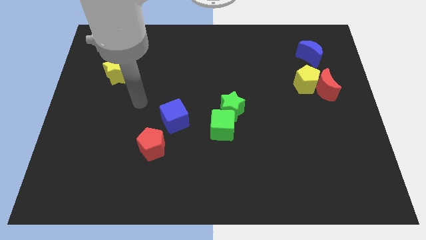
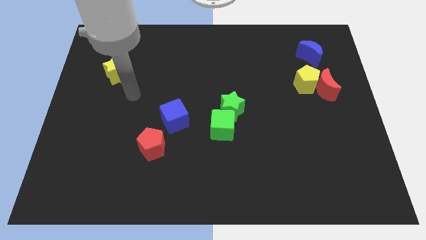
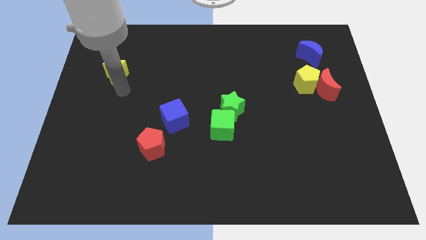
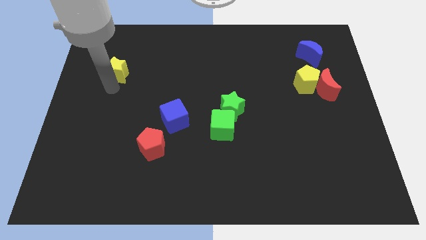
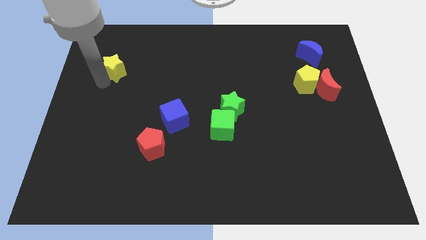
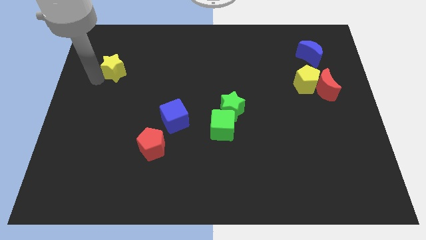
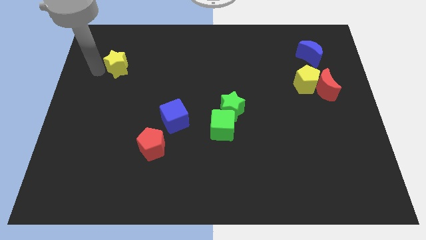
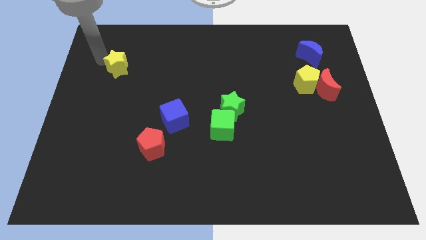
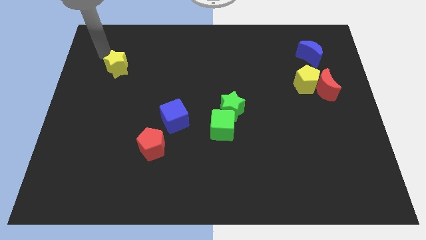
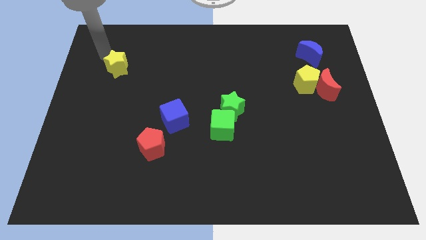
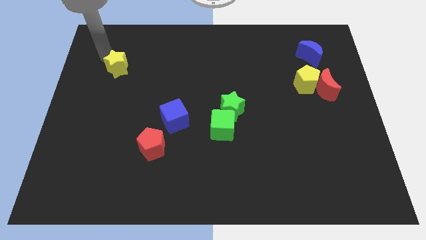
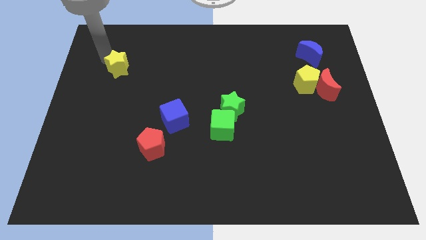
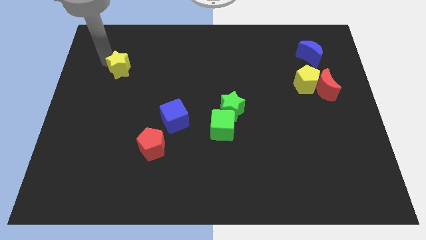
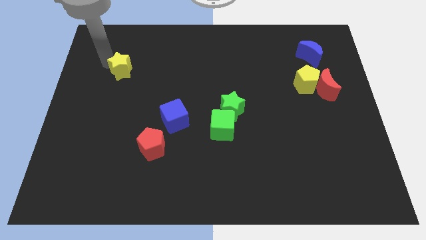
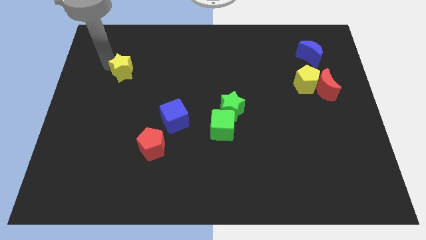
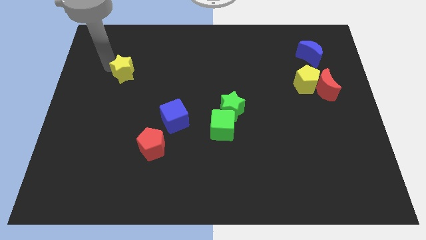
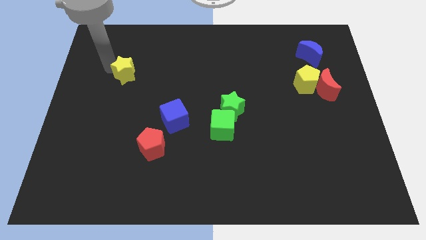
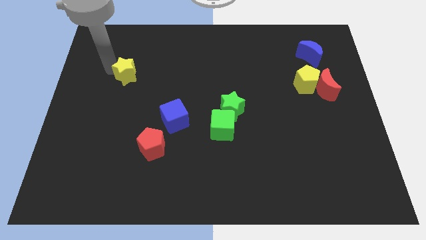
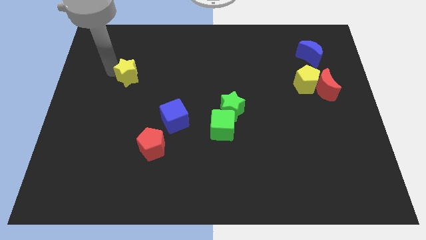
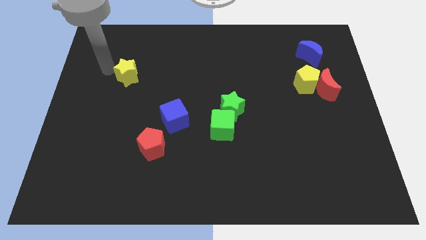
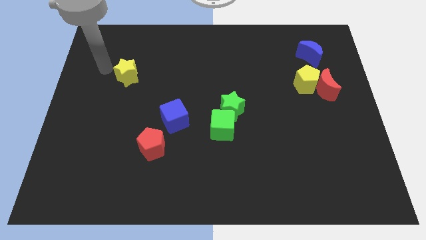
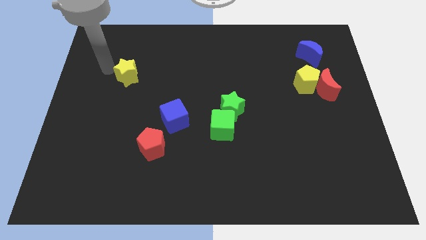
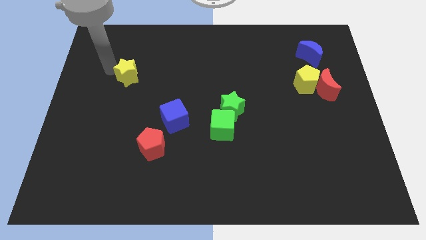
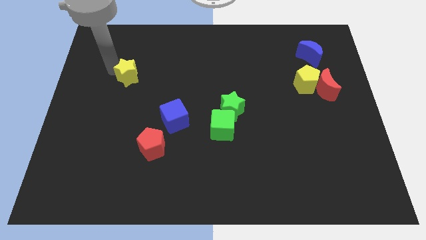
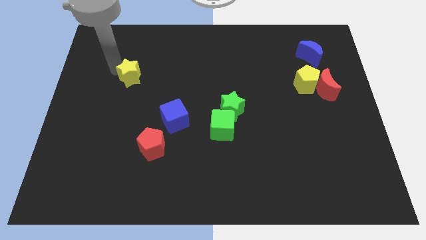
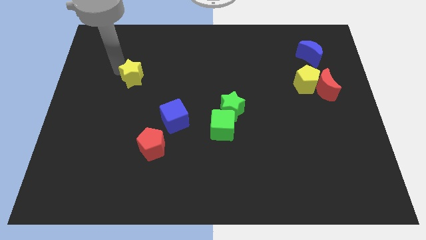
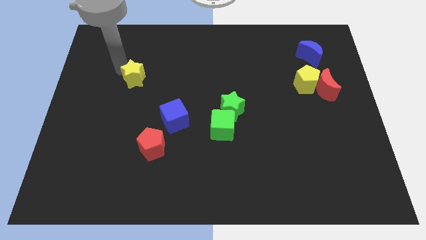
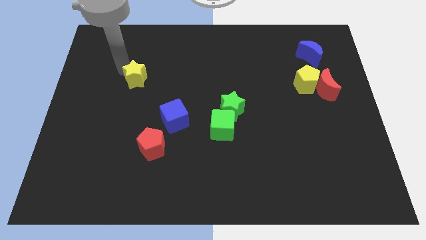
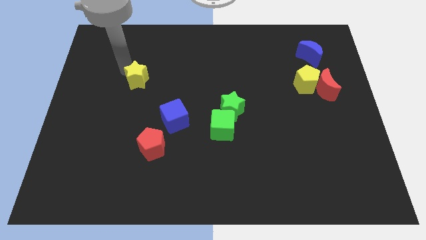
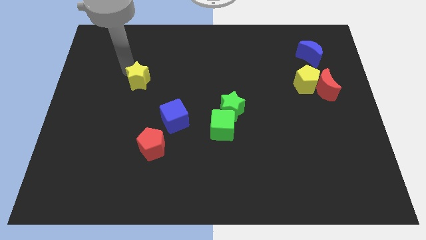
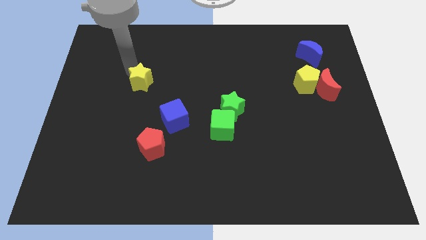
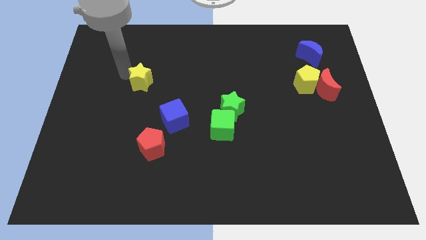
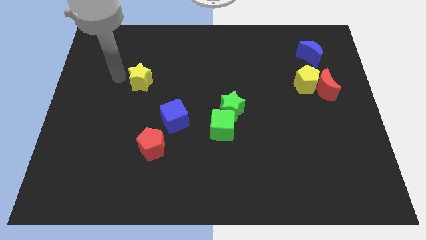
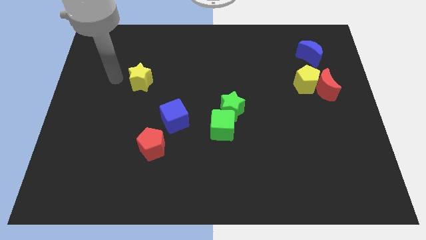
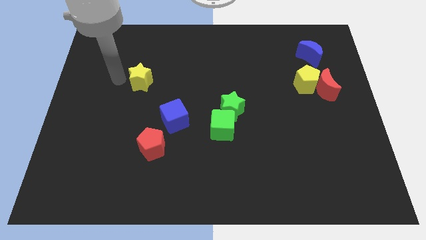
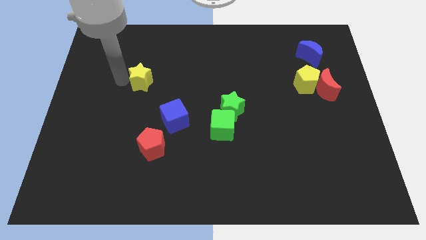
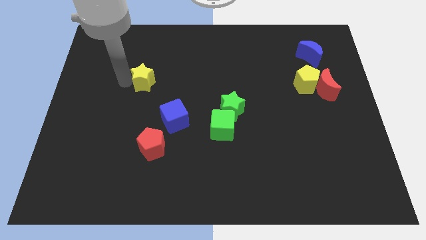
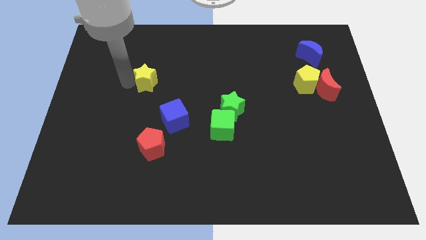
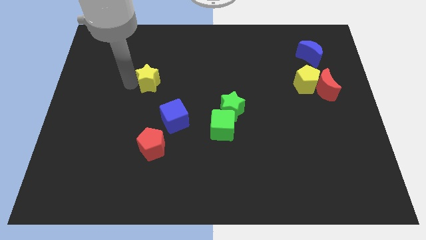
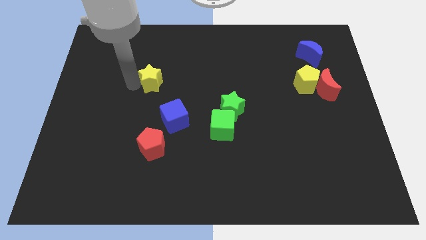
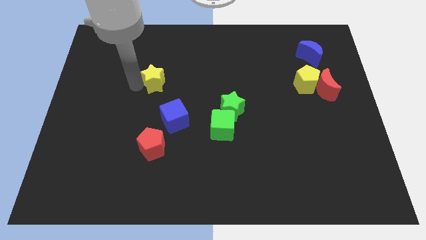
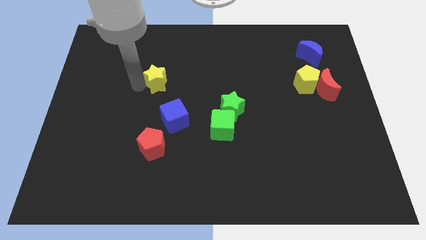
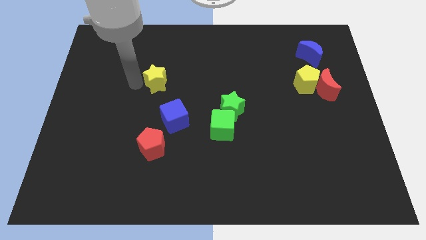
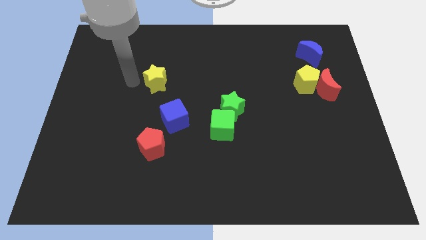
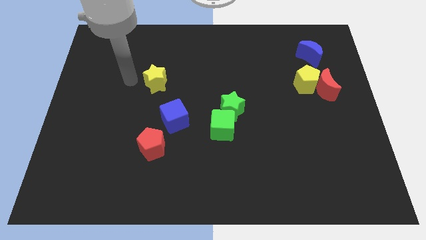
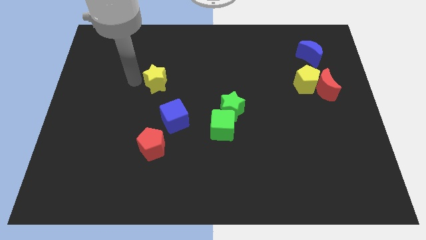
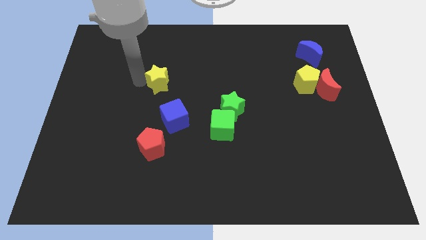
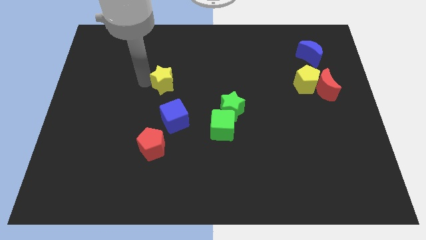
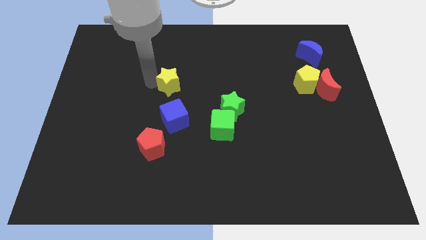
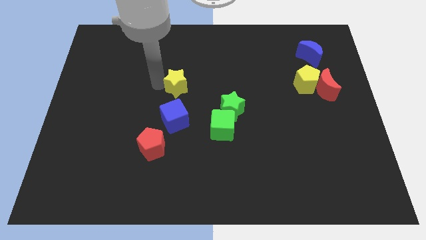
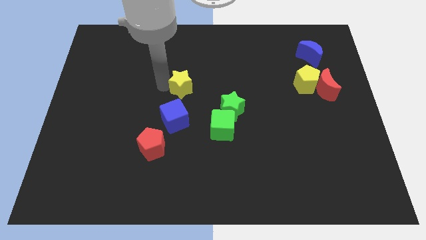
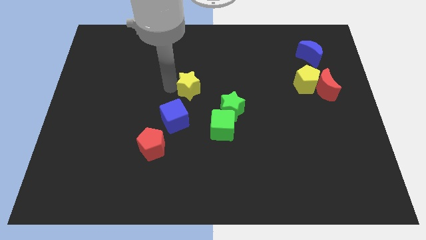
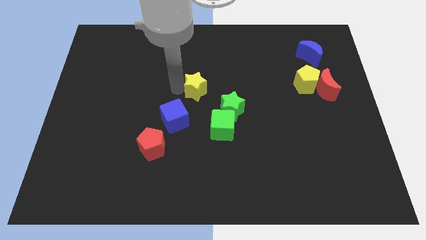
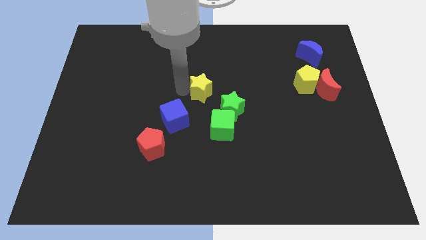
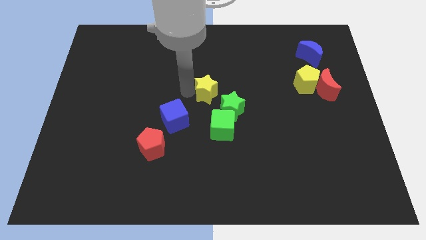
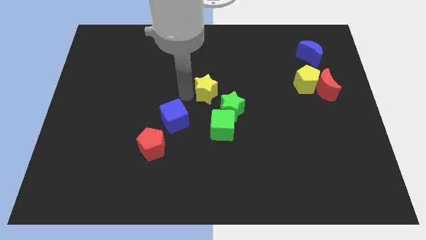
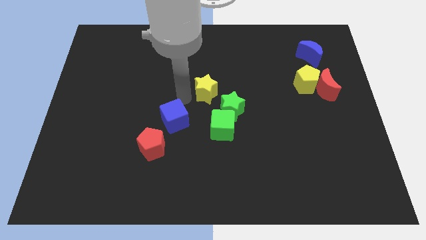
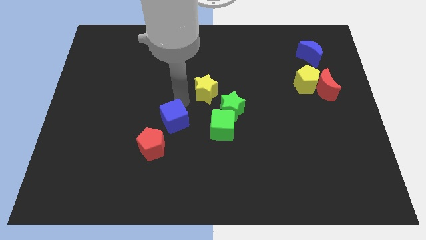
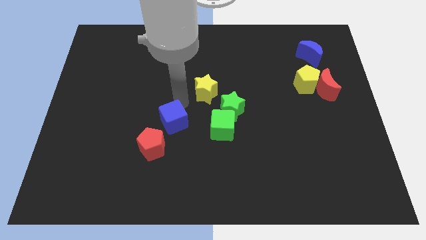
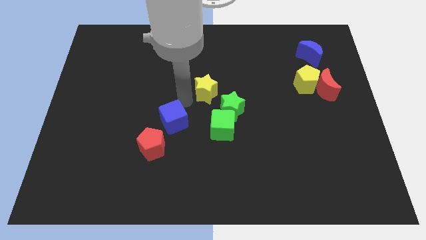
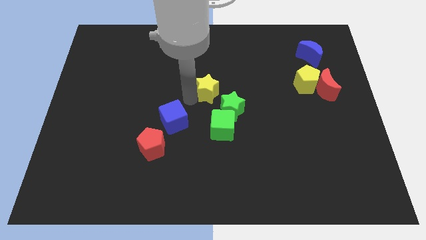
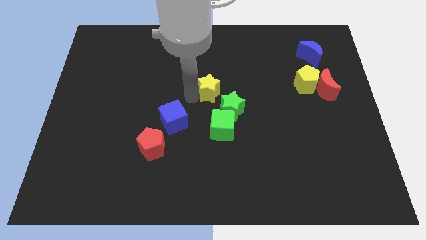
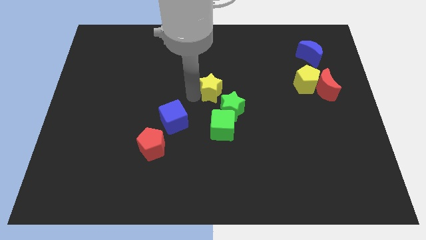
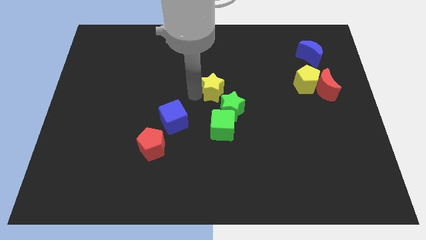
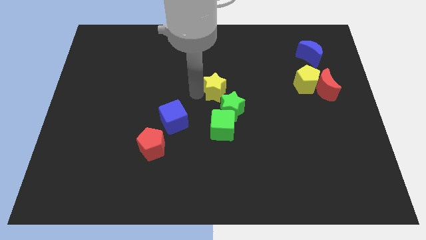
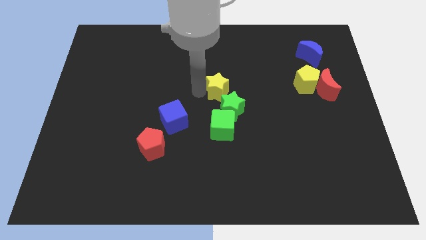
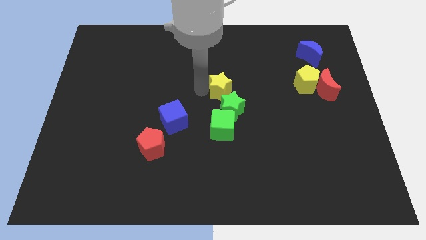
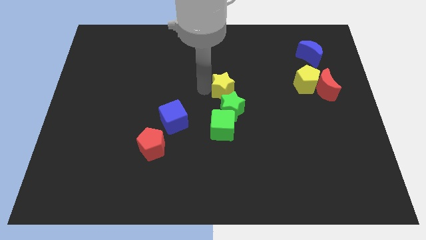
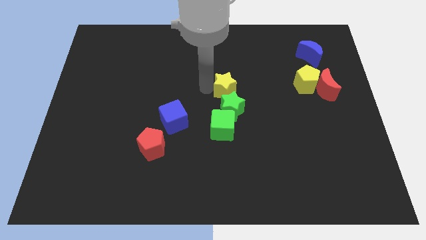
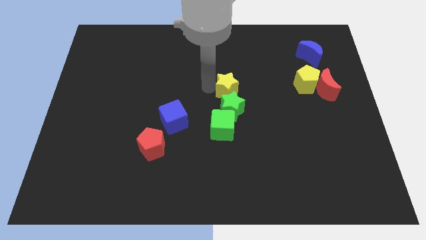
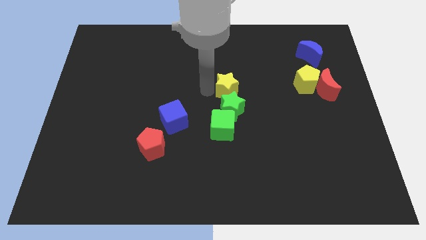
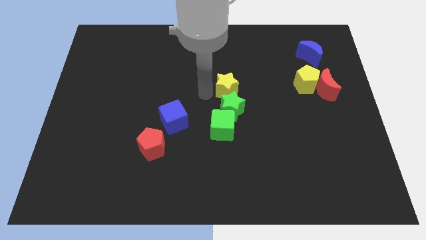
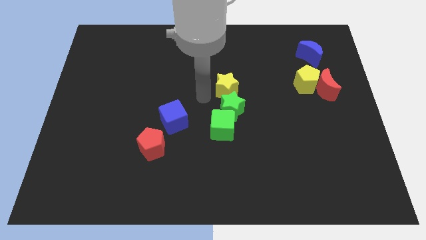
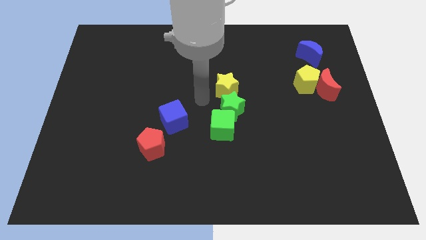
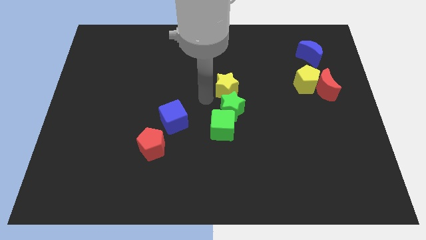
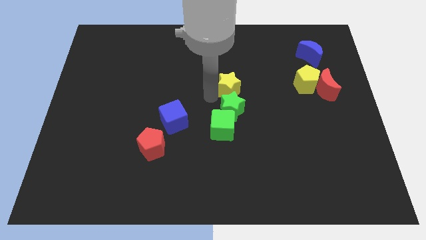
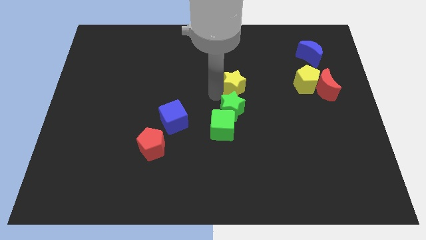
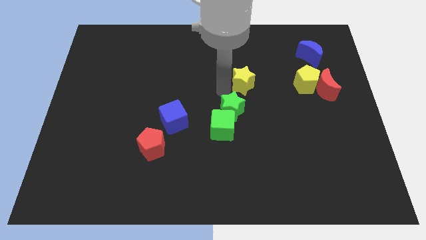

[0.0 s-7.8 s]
push the yellow star to the left side of the yellow pentagon
